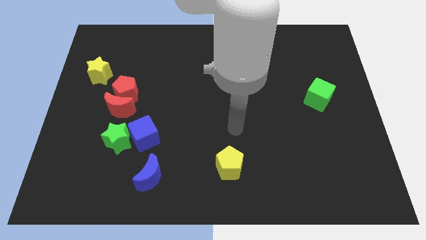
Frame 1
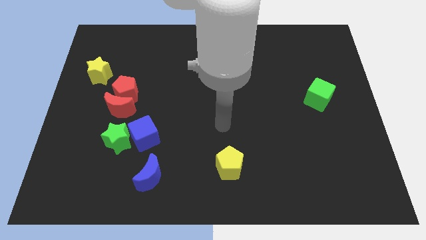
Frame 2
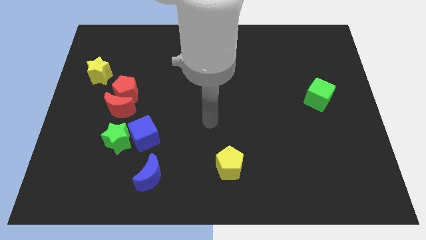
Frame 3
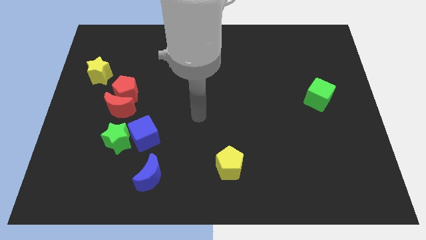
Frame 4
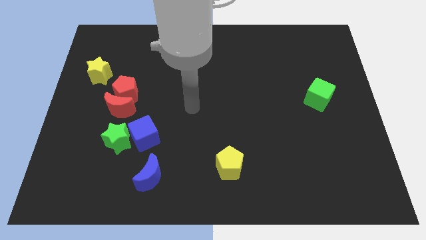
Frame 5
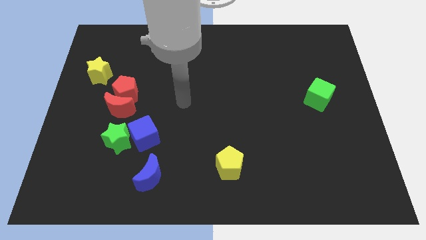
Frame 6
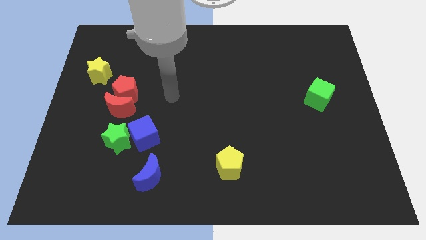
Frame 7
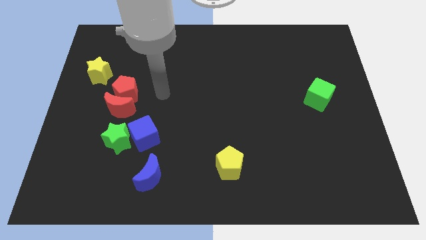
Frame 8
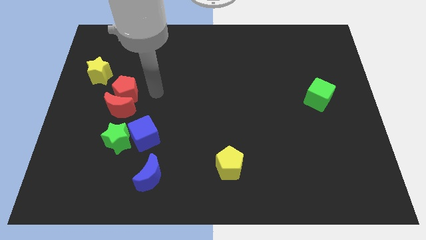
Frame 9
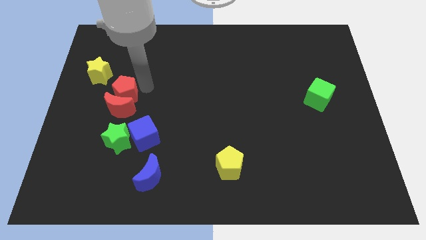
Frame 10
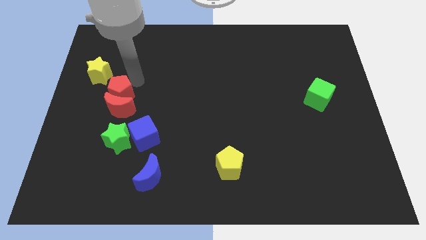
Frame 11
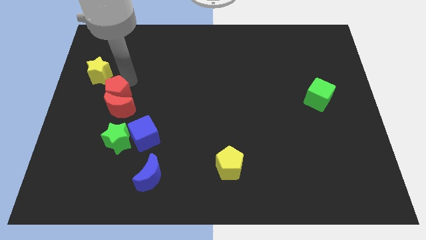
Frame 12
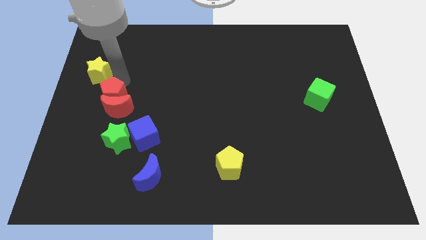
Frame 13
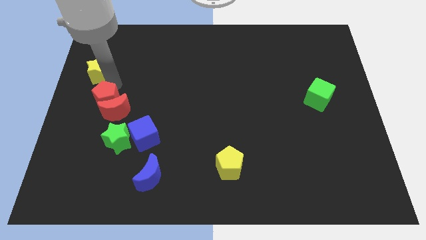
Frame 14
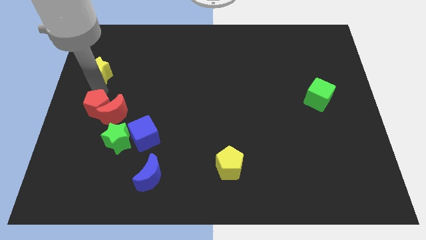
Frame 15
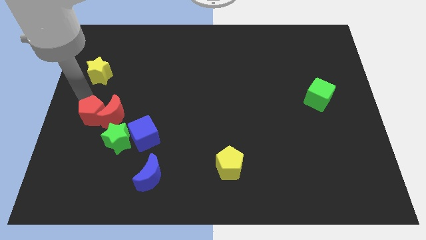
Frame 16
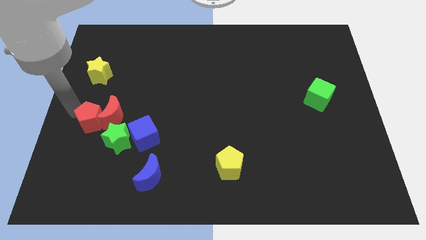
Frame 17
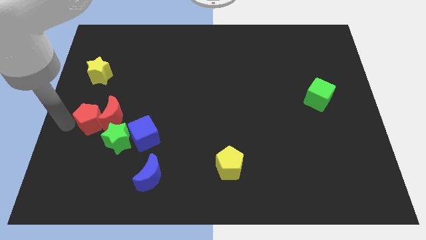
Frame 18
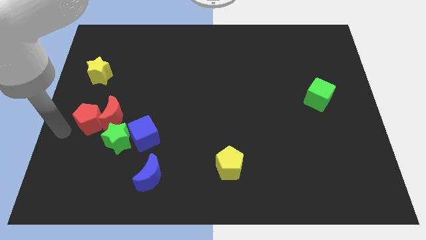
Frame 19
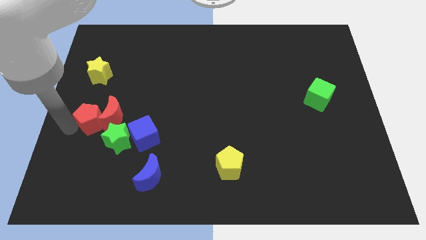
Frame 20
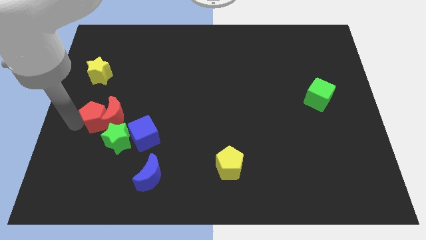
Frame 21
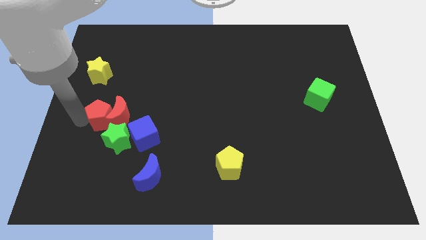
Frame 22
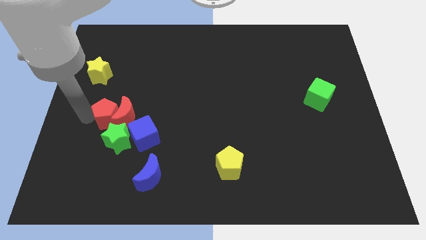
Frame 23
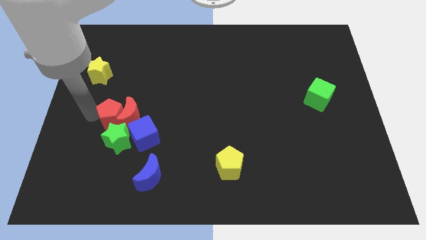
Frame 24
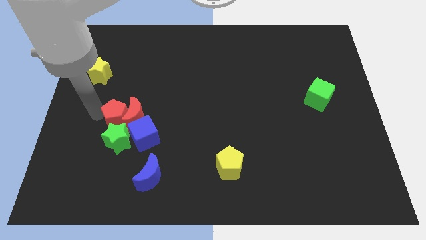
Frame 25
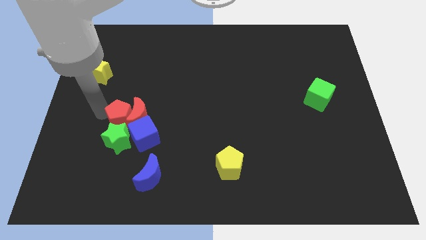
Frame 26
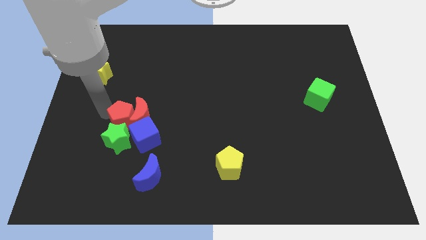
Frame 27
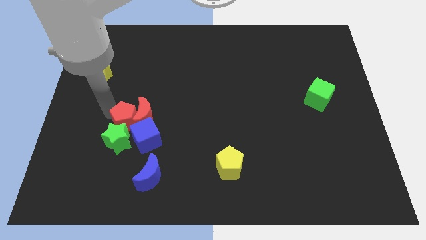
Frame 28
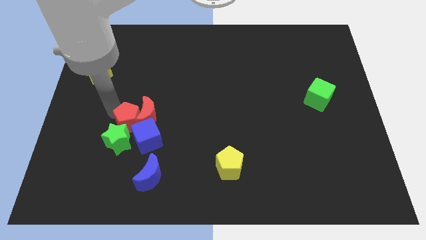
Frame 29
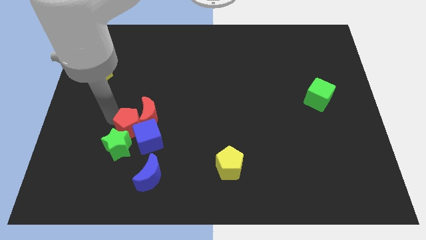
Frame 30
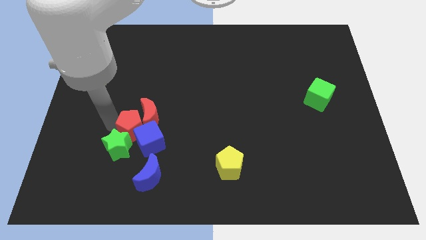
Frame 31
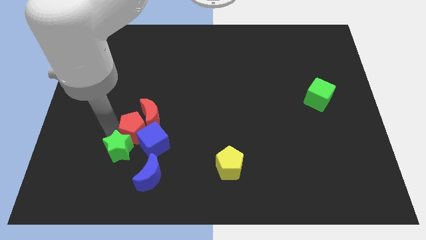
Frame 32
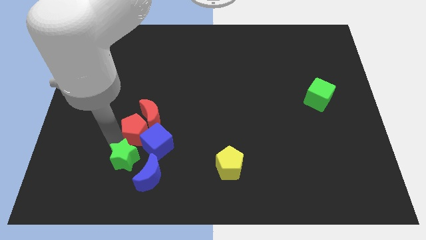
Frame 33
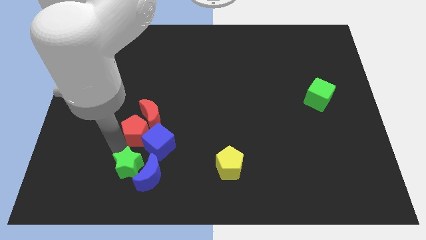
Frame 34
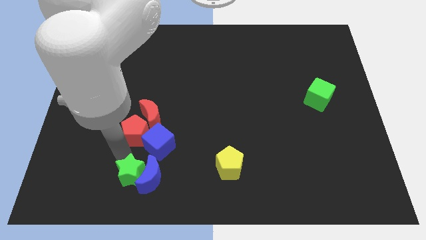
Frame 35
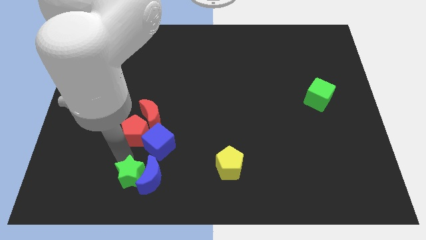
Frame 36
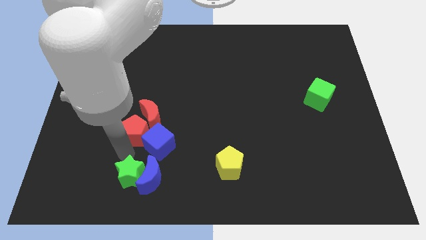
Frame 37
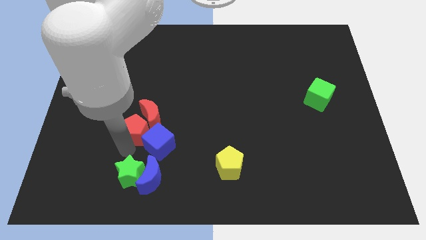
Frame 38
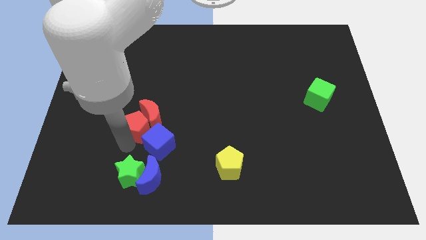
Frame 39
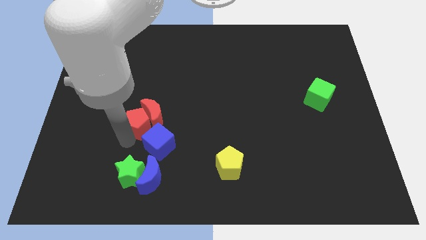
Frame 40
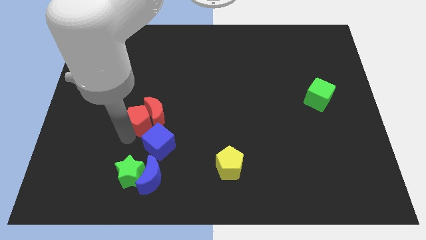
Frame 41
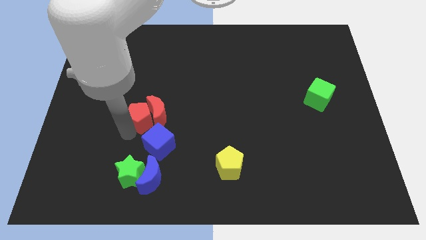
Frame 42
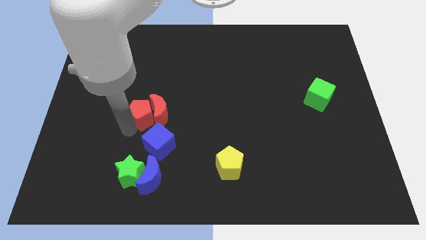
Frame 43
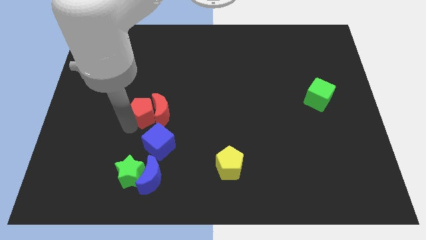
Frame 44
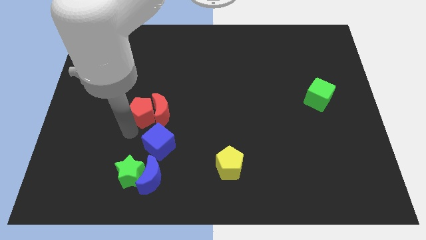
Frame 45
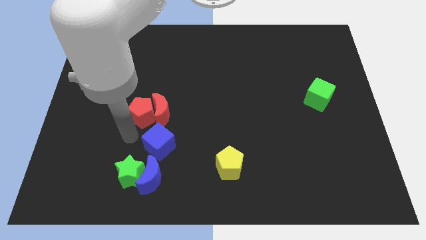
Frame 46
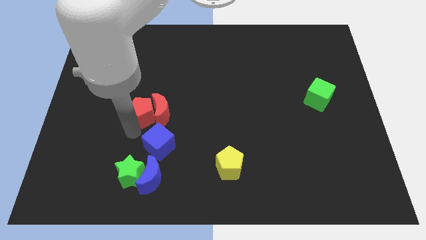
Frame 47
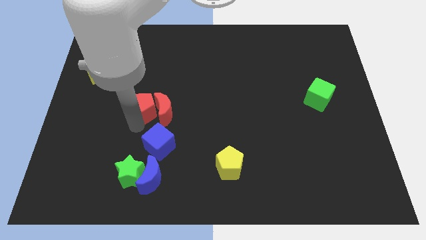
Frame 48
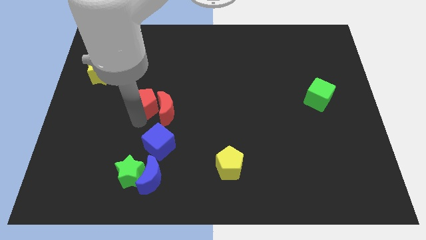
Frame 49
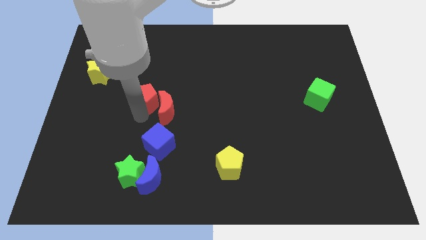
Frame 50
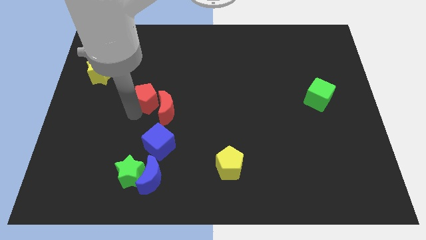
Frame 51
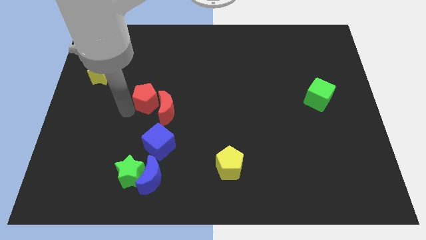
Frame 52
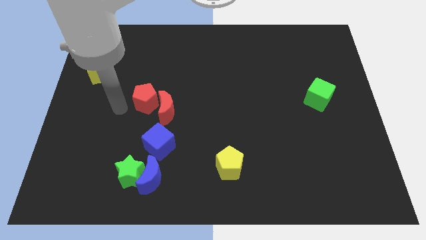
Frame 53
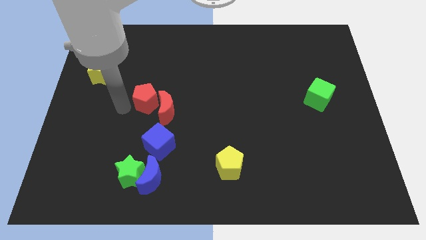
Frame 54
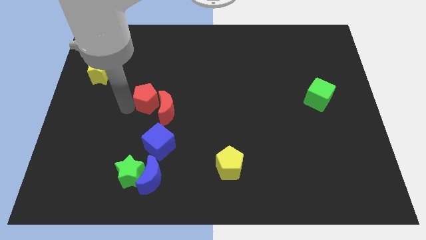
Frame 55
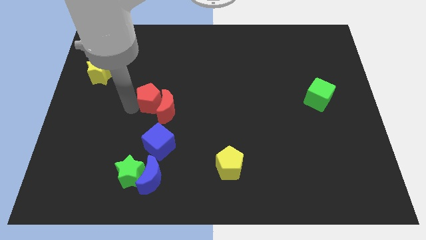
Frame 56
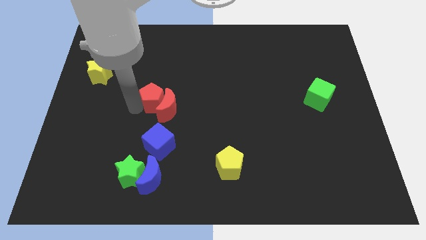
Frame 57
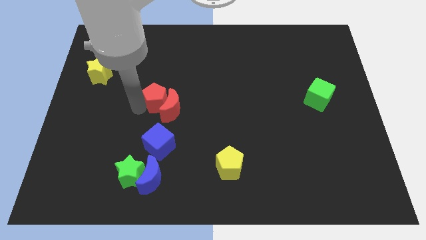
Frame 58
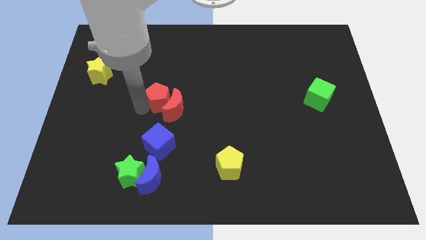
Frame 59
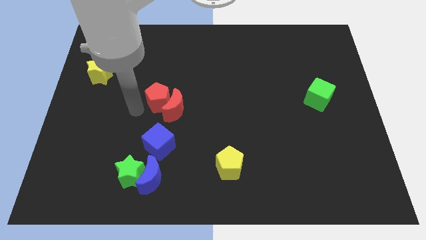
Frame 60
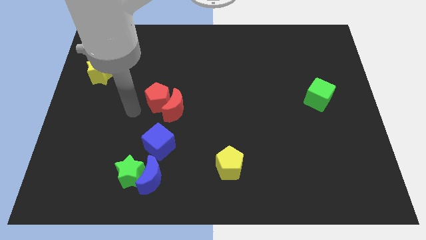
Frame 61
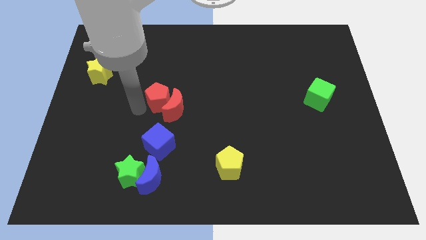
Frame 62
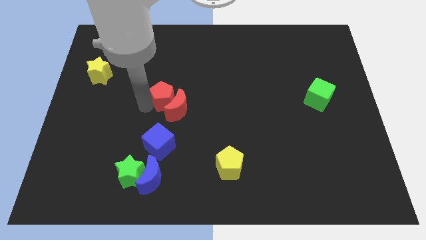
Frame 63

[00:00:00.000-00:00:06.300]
push the red pentagon to the center of the board
